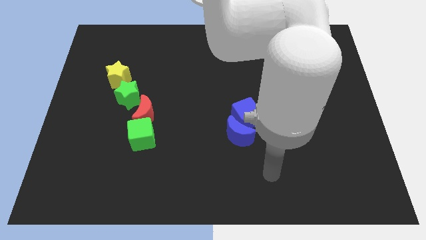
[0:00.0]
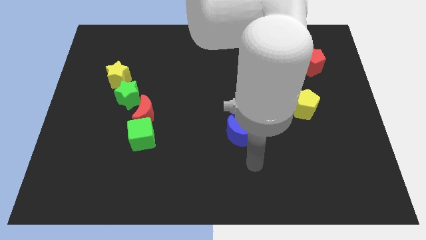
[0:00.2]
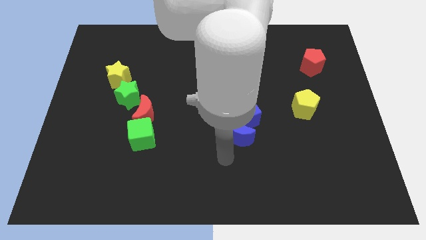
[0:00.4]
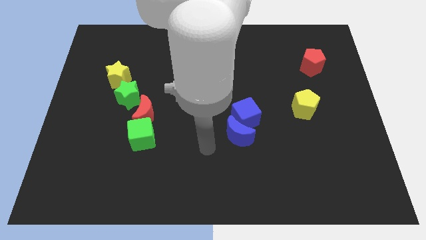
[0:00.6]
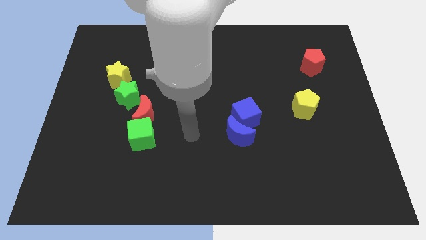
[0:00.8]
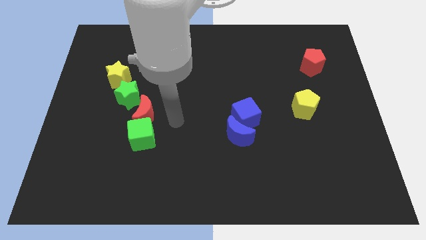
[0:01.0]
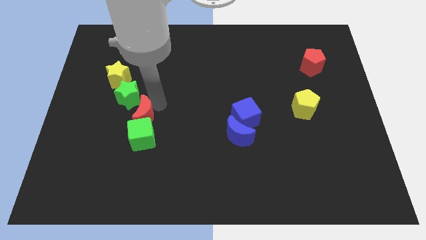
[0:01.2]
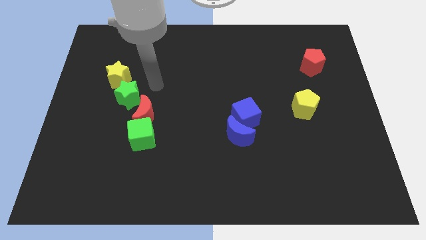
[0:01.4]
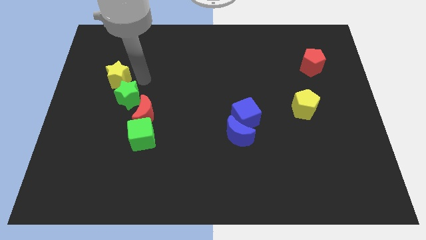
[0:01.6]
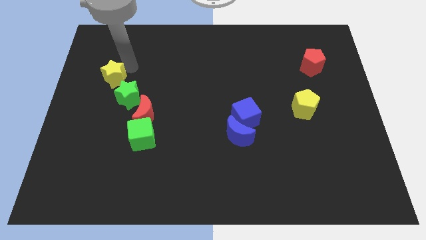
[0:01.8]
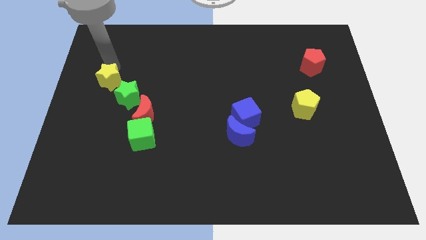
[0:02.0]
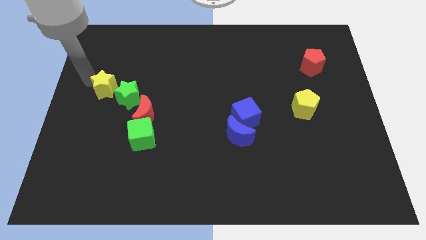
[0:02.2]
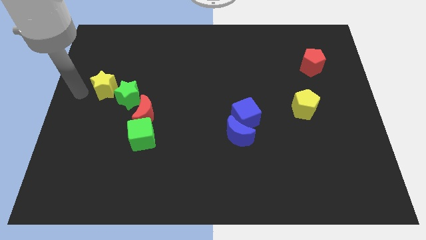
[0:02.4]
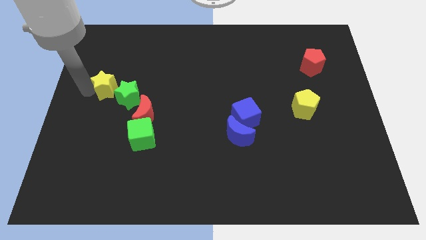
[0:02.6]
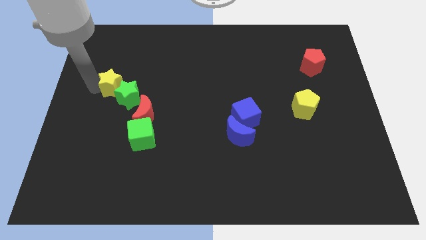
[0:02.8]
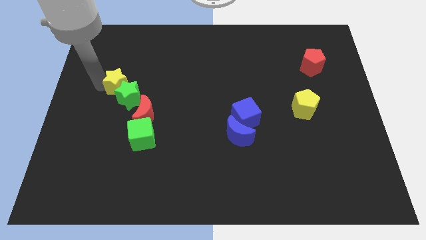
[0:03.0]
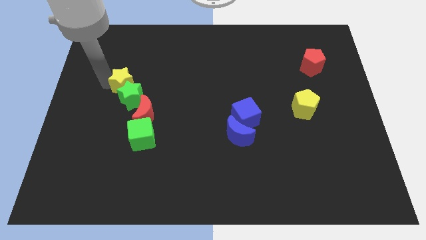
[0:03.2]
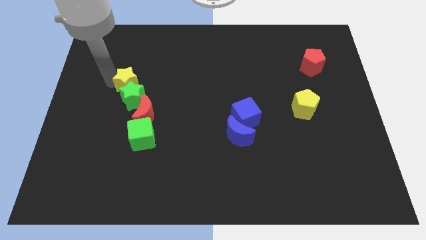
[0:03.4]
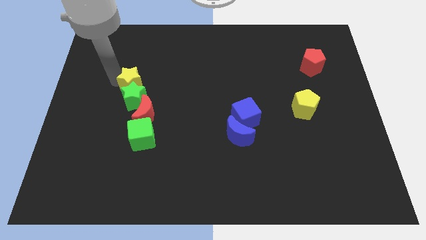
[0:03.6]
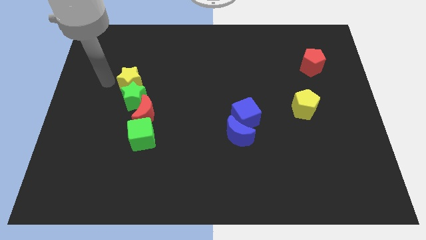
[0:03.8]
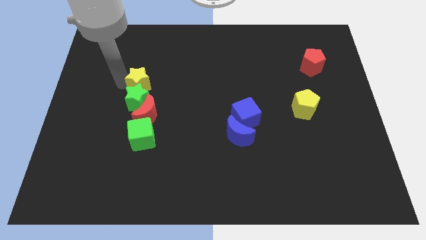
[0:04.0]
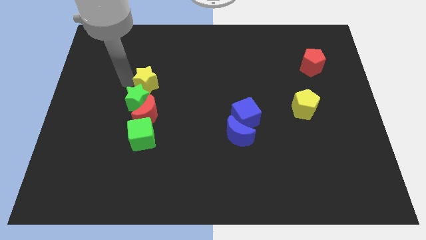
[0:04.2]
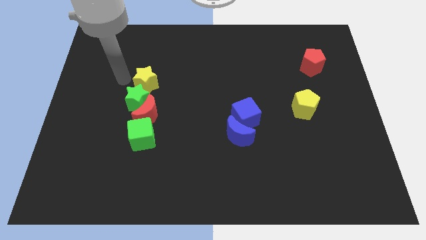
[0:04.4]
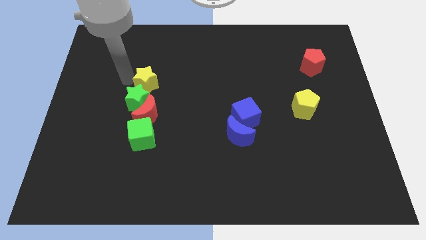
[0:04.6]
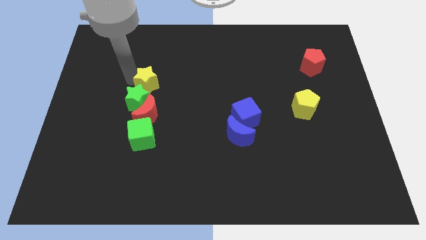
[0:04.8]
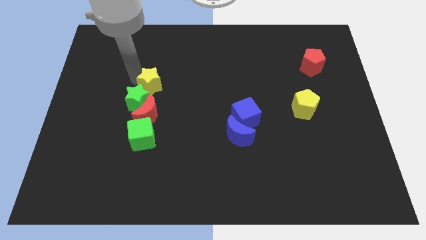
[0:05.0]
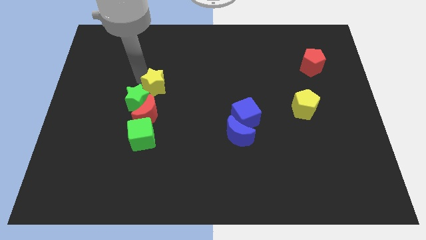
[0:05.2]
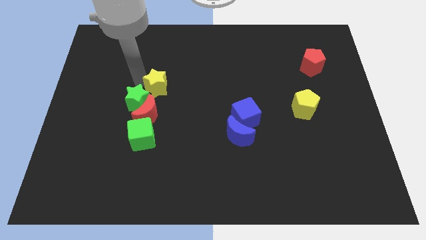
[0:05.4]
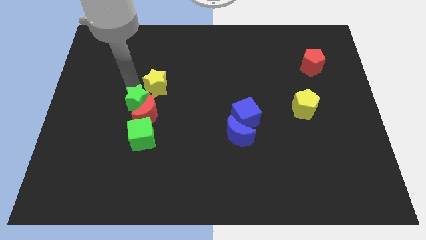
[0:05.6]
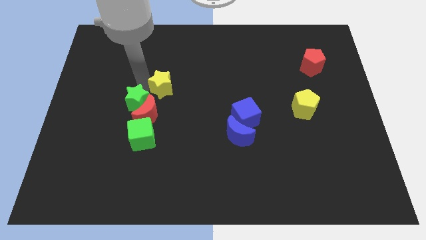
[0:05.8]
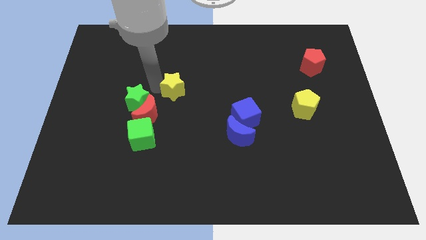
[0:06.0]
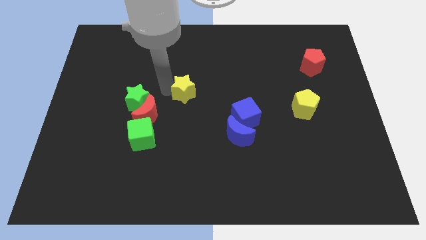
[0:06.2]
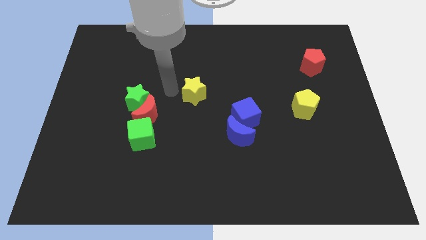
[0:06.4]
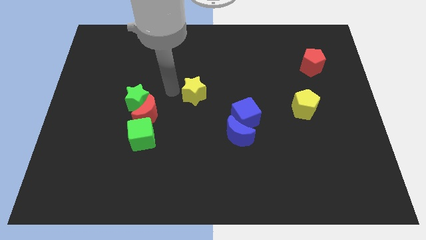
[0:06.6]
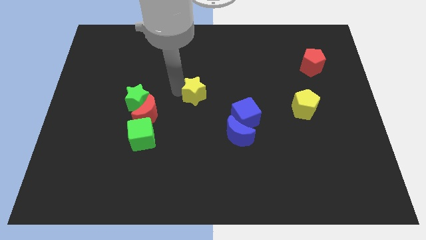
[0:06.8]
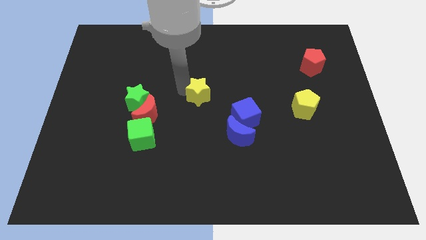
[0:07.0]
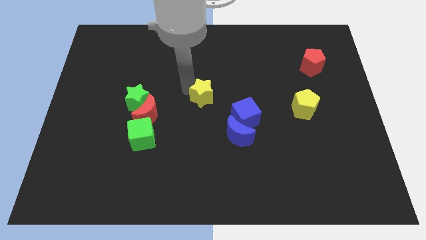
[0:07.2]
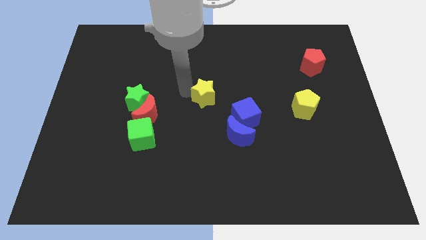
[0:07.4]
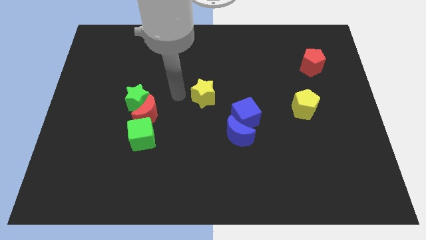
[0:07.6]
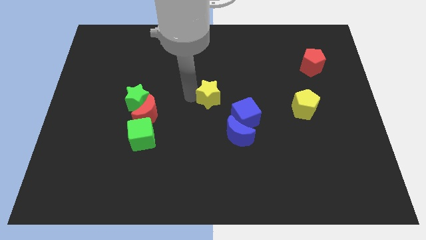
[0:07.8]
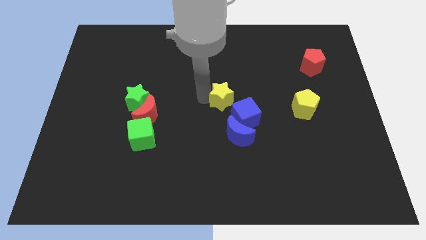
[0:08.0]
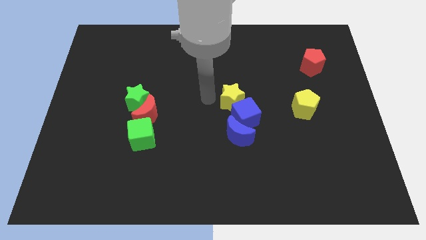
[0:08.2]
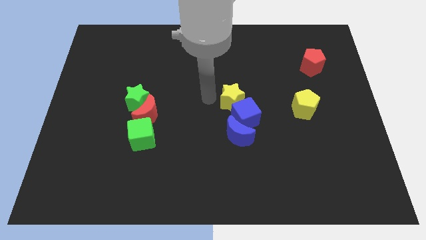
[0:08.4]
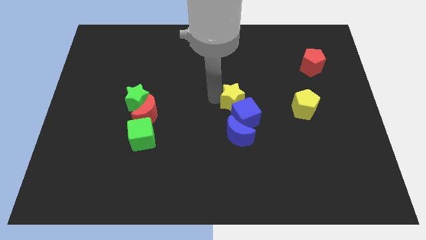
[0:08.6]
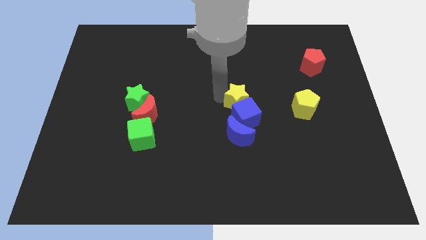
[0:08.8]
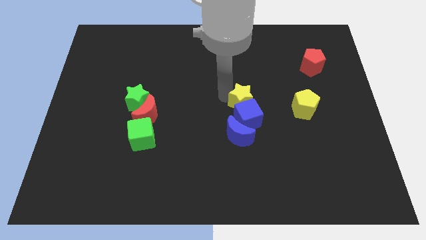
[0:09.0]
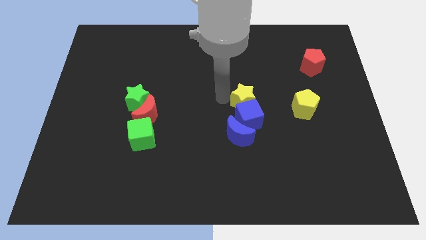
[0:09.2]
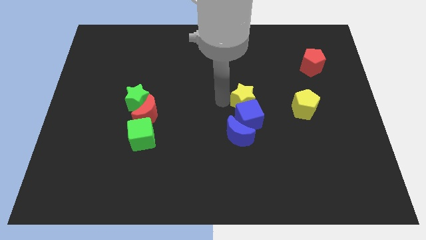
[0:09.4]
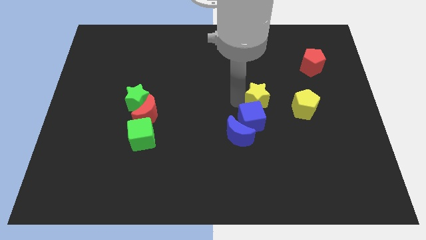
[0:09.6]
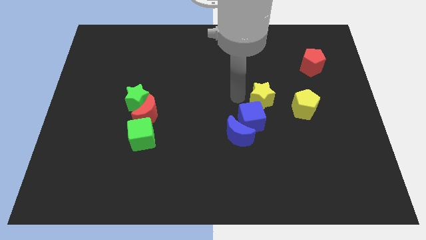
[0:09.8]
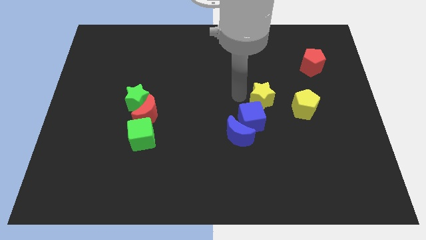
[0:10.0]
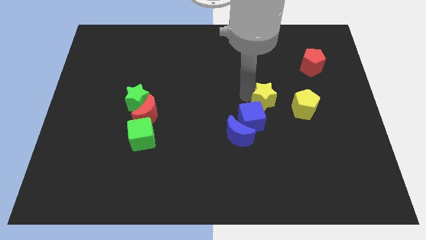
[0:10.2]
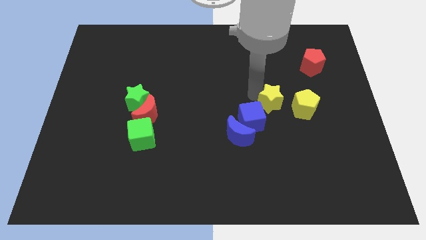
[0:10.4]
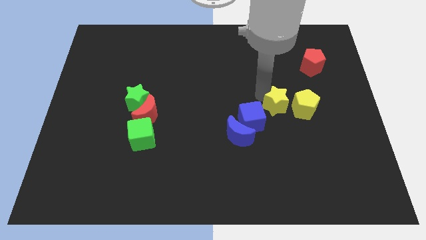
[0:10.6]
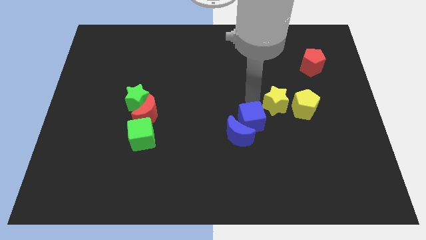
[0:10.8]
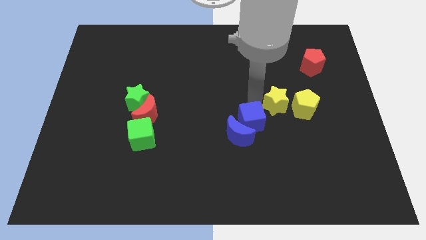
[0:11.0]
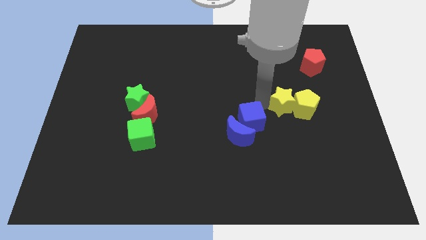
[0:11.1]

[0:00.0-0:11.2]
slide the yellow star towards the yellow pentagon

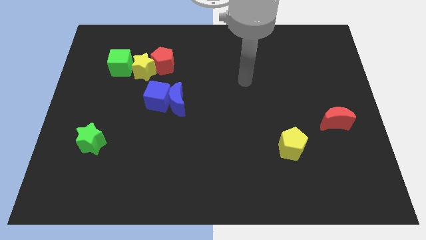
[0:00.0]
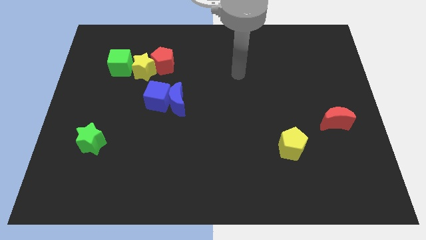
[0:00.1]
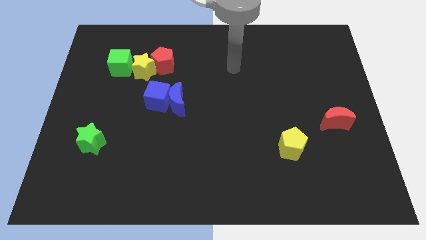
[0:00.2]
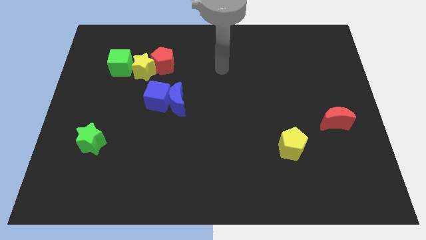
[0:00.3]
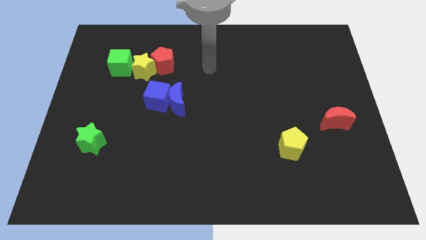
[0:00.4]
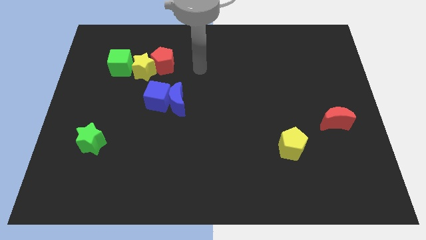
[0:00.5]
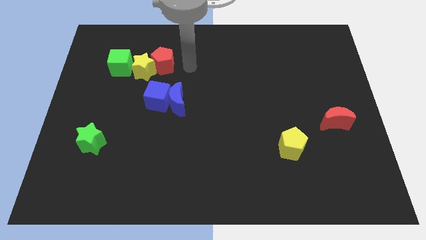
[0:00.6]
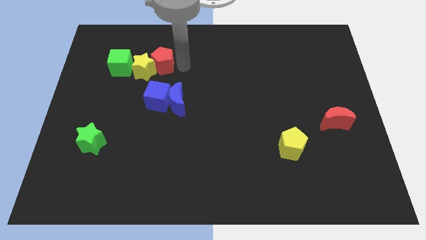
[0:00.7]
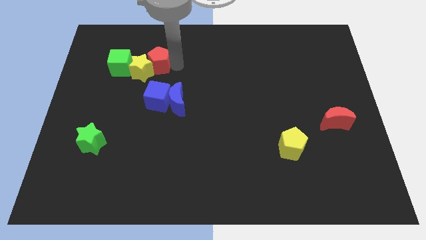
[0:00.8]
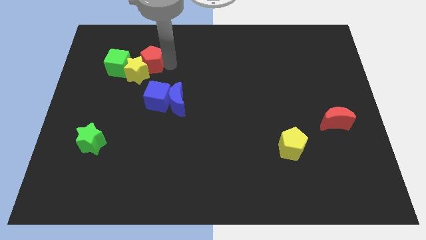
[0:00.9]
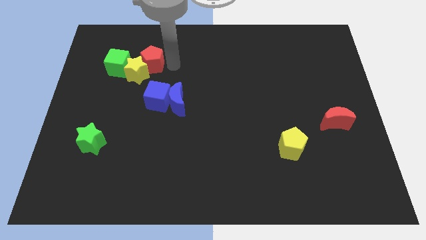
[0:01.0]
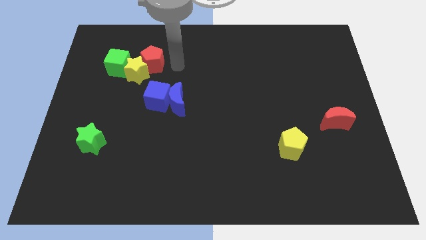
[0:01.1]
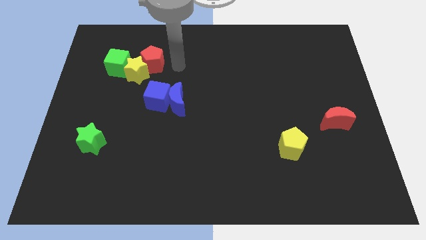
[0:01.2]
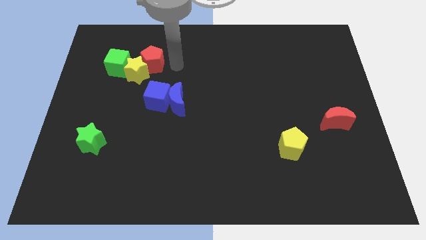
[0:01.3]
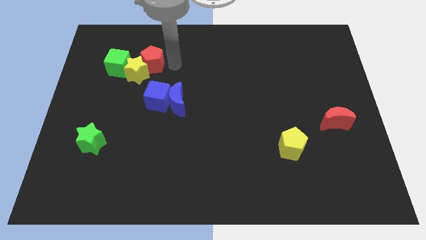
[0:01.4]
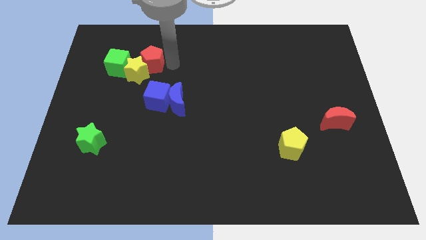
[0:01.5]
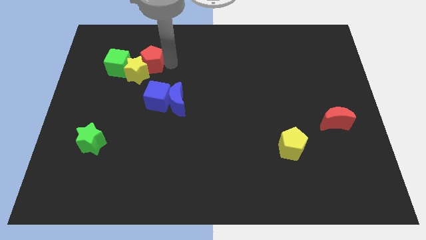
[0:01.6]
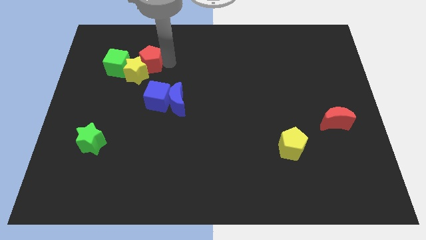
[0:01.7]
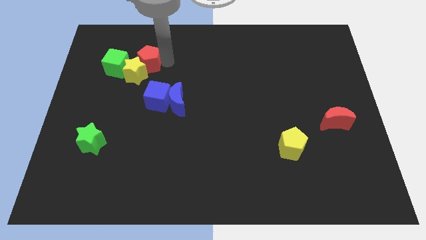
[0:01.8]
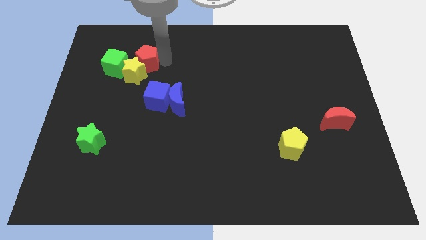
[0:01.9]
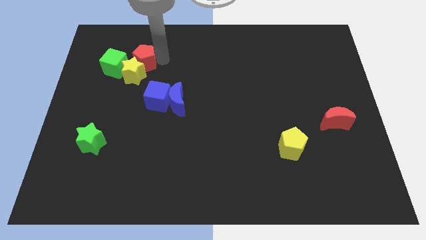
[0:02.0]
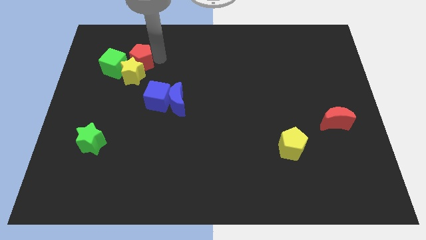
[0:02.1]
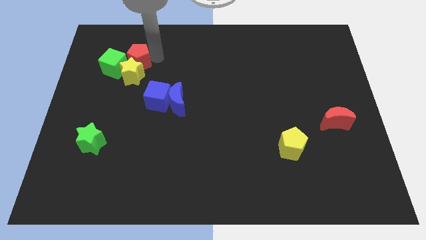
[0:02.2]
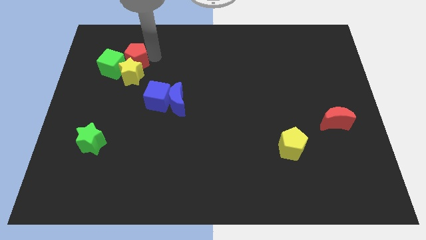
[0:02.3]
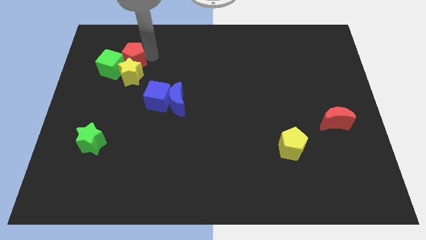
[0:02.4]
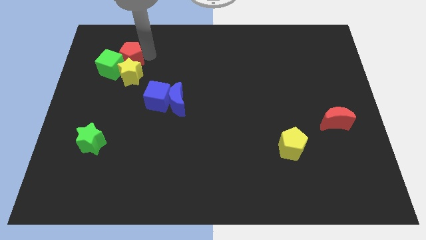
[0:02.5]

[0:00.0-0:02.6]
move the red pentagon next to the green cube
